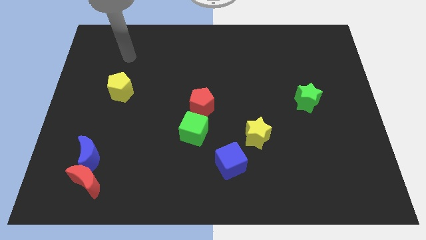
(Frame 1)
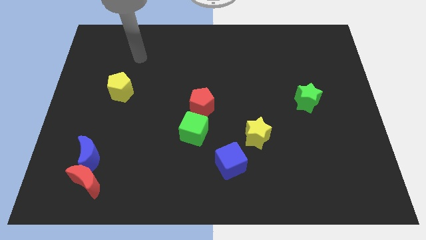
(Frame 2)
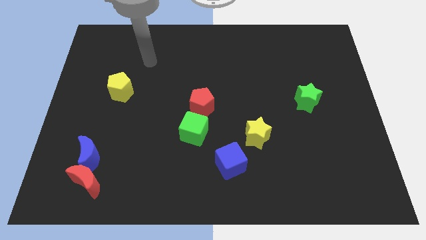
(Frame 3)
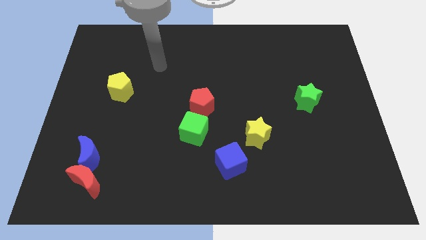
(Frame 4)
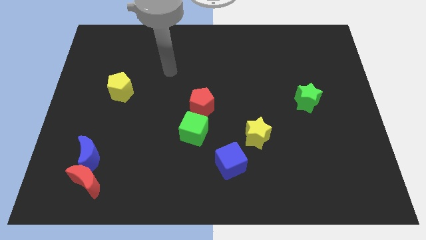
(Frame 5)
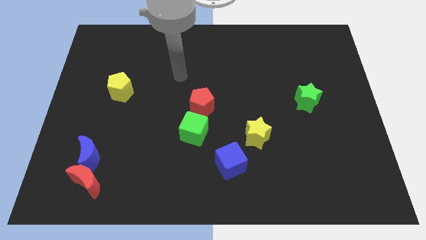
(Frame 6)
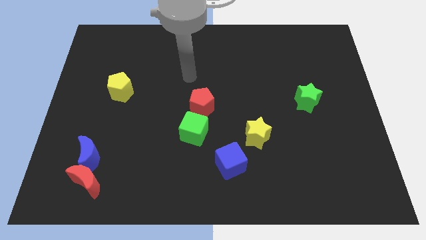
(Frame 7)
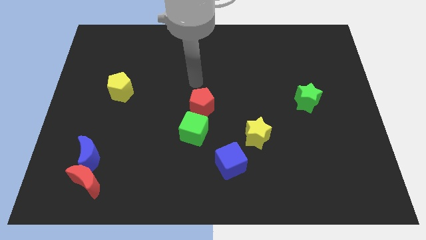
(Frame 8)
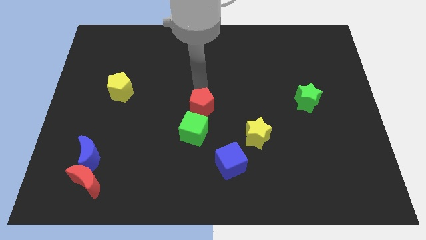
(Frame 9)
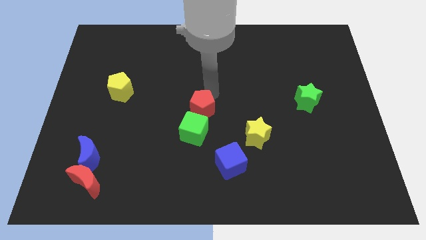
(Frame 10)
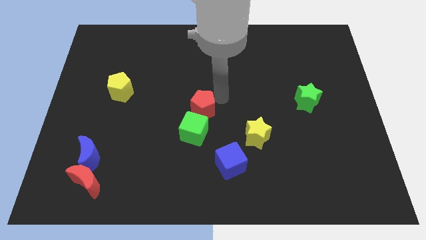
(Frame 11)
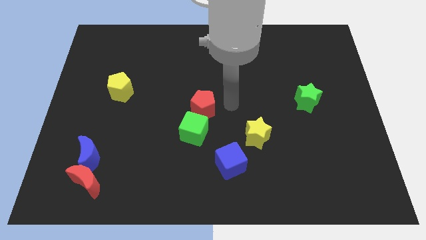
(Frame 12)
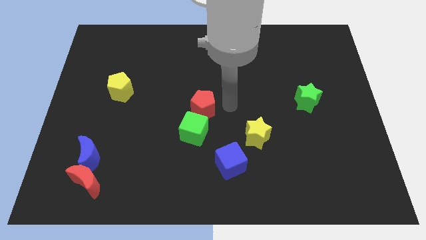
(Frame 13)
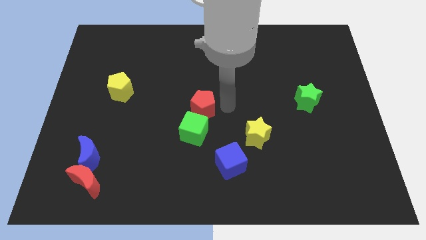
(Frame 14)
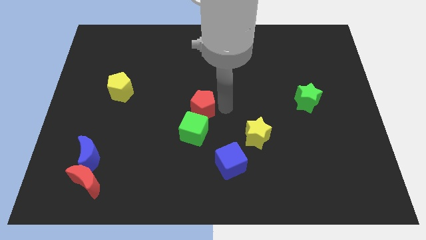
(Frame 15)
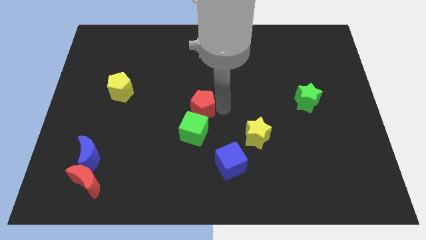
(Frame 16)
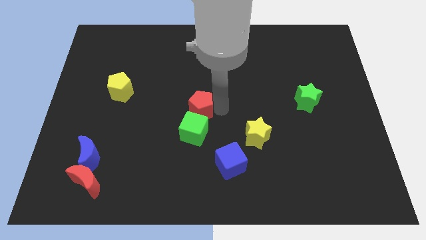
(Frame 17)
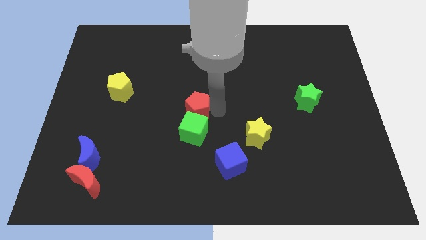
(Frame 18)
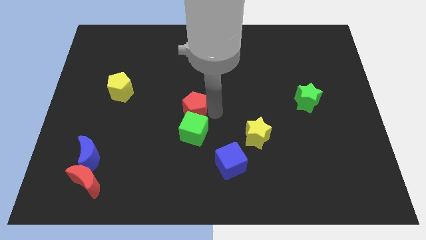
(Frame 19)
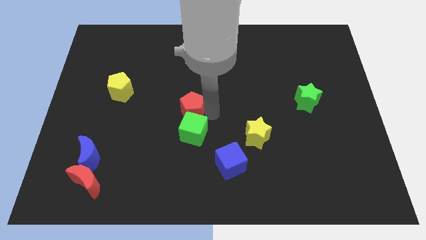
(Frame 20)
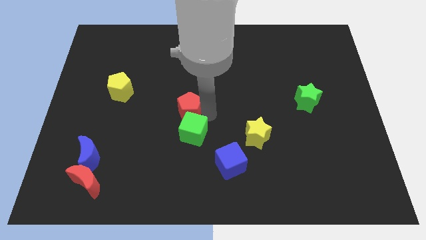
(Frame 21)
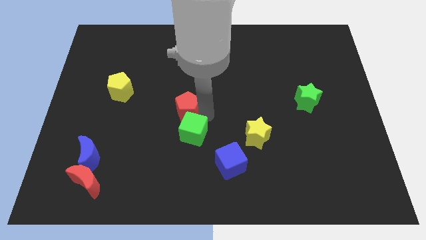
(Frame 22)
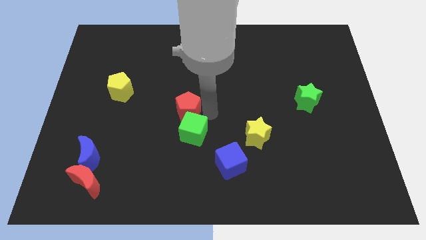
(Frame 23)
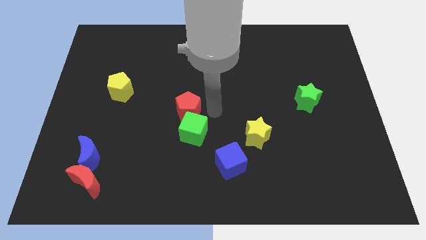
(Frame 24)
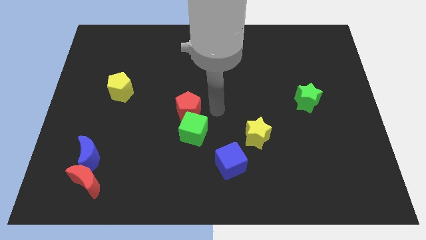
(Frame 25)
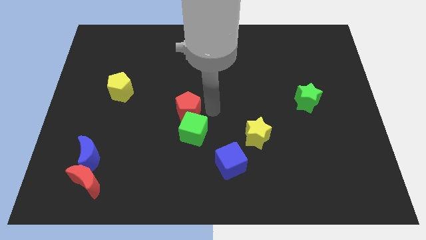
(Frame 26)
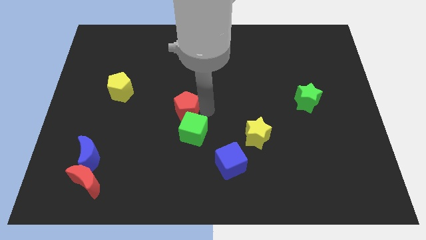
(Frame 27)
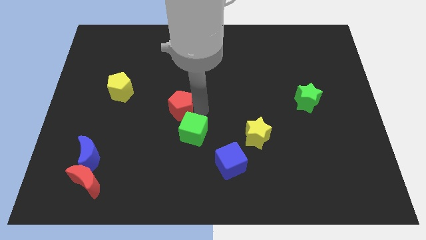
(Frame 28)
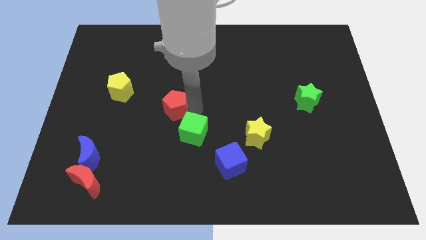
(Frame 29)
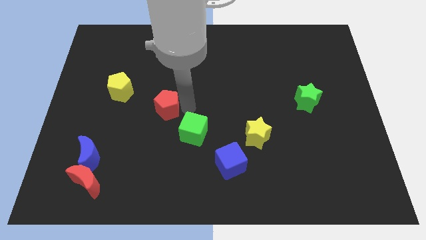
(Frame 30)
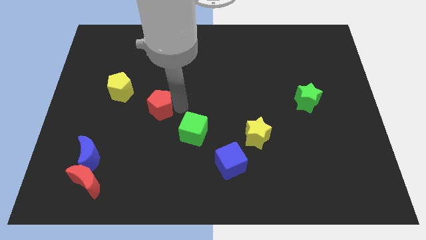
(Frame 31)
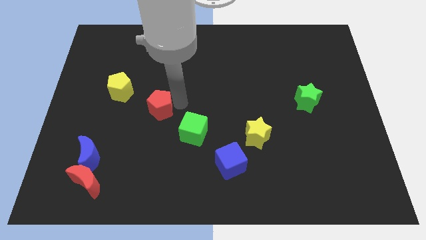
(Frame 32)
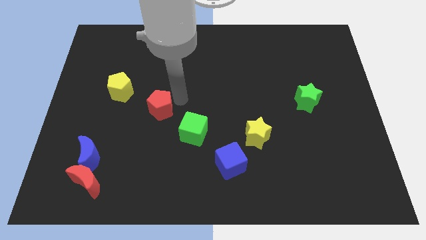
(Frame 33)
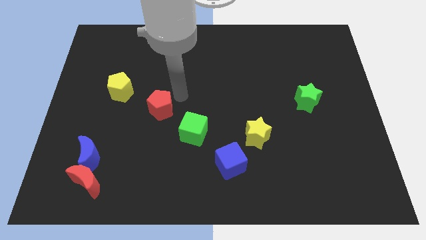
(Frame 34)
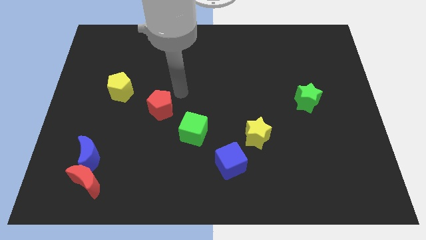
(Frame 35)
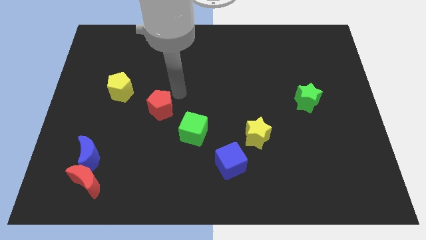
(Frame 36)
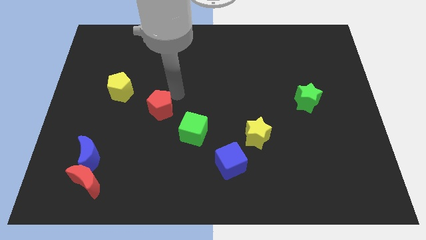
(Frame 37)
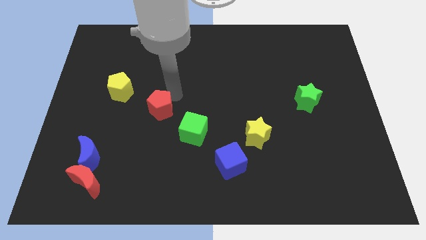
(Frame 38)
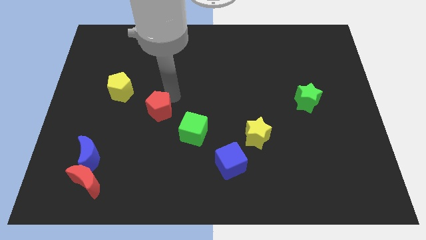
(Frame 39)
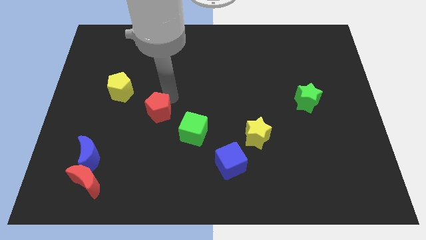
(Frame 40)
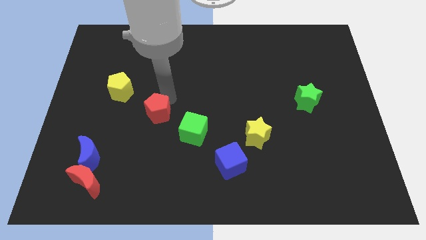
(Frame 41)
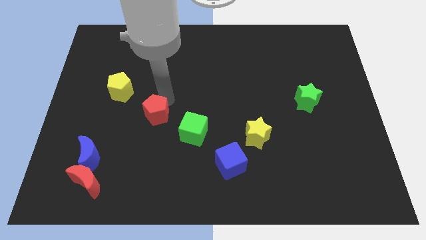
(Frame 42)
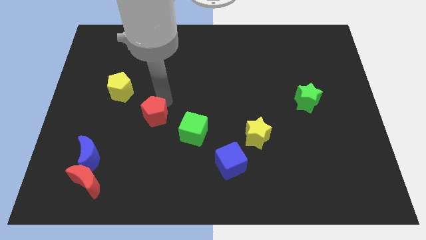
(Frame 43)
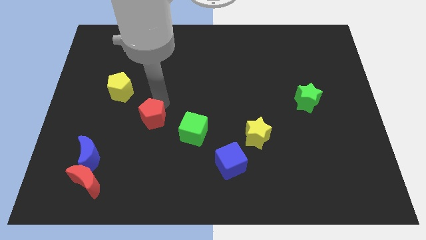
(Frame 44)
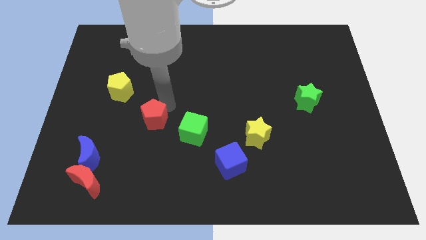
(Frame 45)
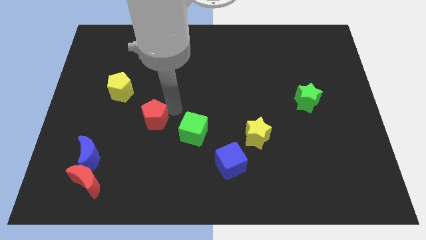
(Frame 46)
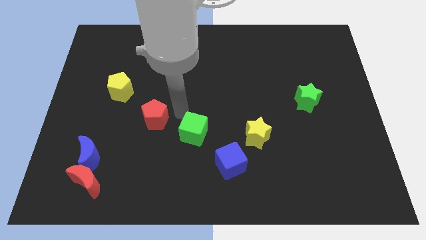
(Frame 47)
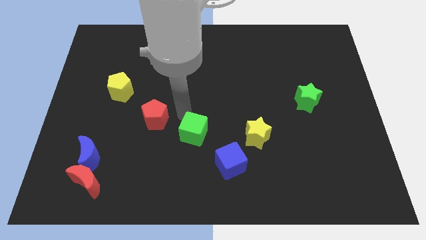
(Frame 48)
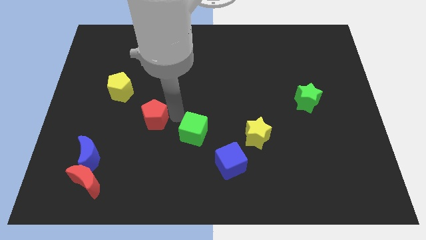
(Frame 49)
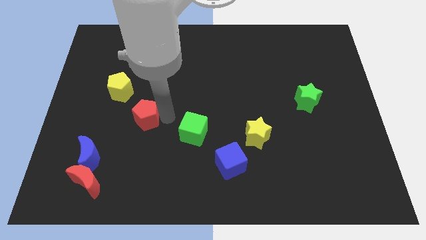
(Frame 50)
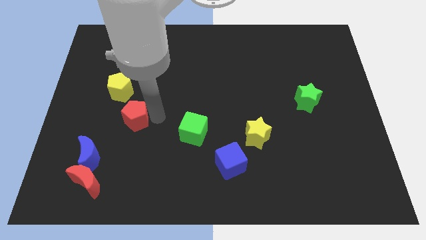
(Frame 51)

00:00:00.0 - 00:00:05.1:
move the red pentagon below the yellow pentagon

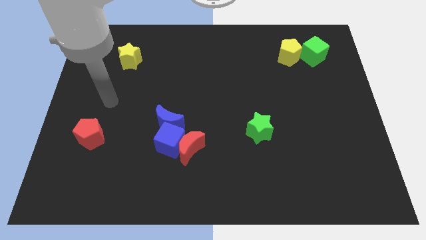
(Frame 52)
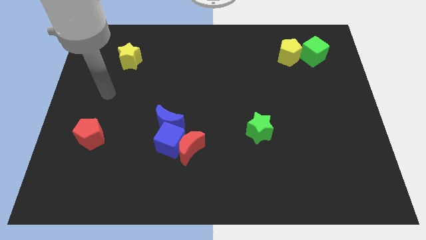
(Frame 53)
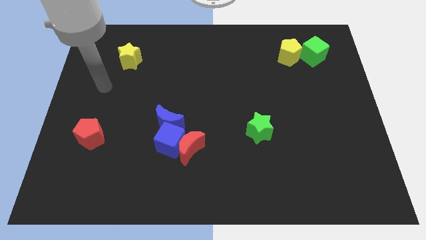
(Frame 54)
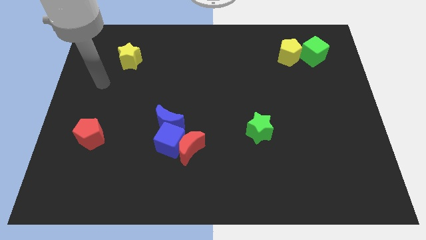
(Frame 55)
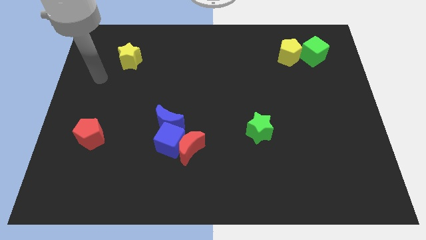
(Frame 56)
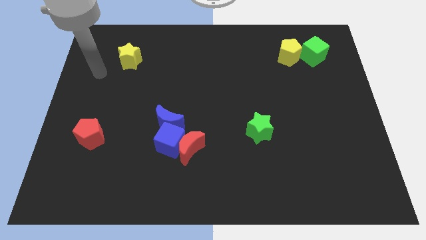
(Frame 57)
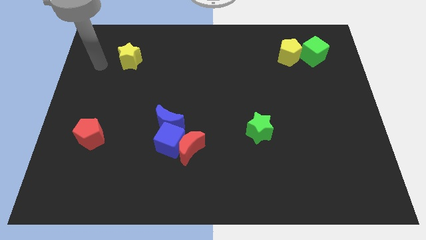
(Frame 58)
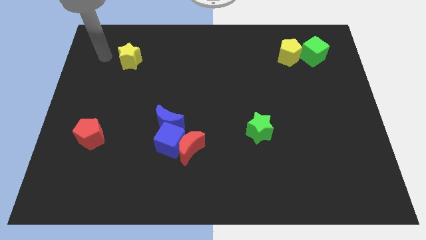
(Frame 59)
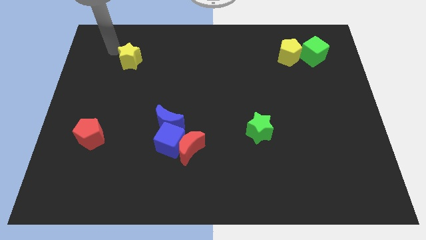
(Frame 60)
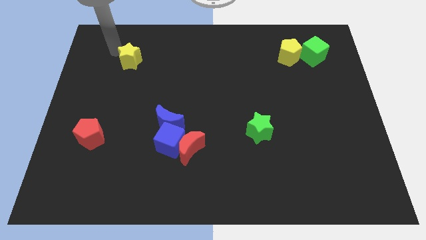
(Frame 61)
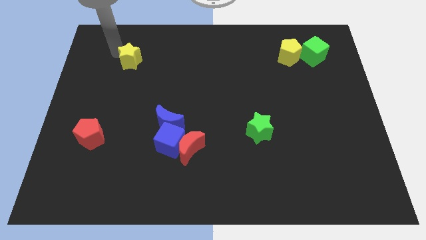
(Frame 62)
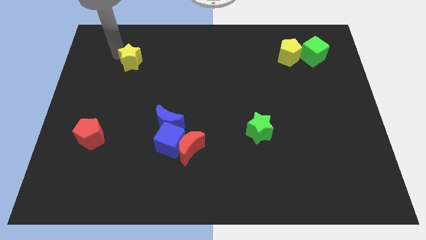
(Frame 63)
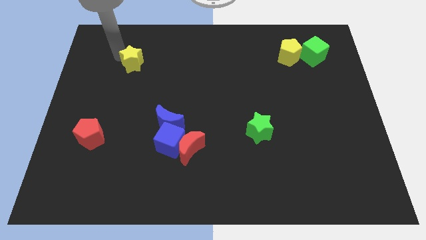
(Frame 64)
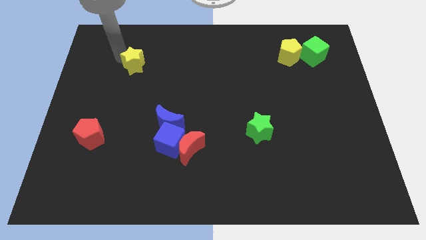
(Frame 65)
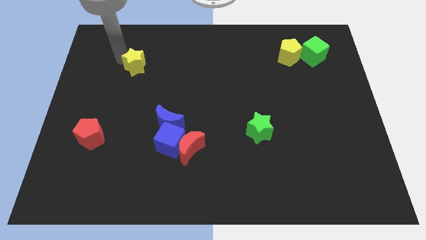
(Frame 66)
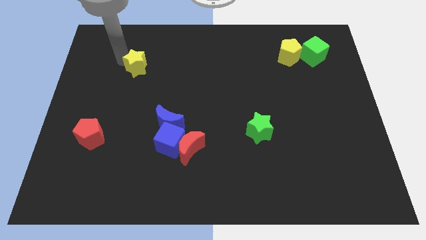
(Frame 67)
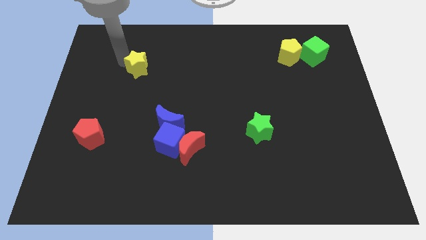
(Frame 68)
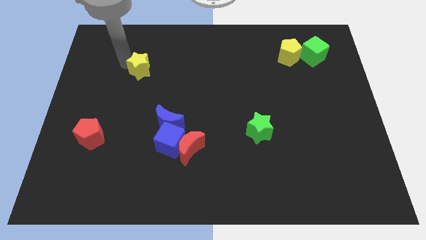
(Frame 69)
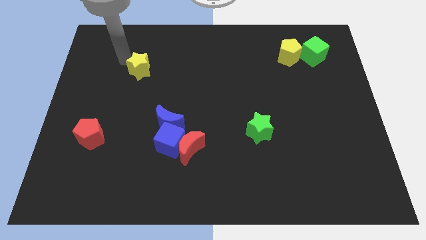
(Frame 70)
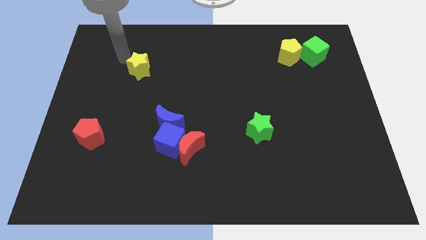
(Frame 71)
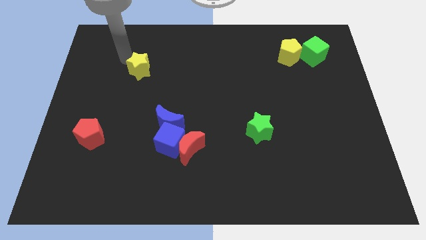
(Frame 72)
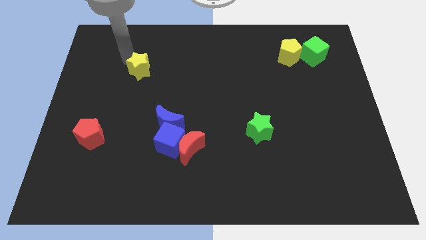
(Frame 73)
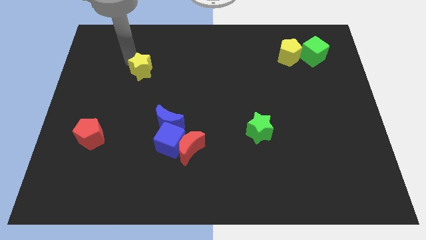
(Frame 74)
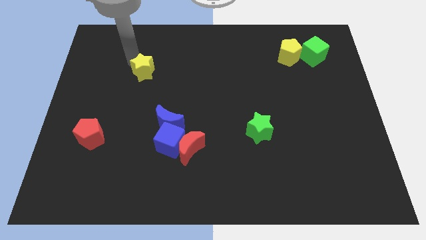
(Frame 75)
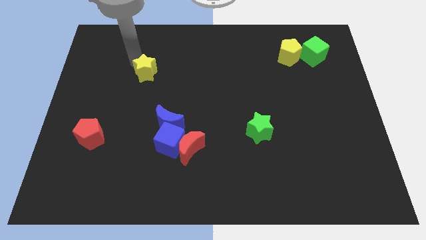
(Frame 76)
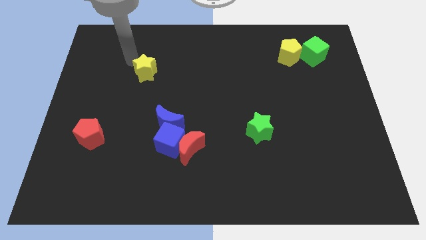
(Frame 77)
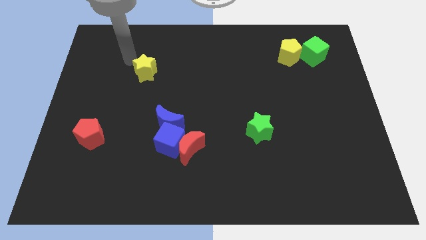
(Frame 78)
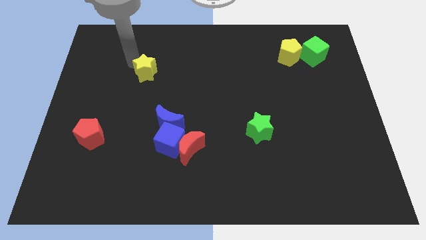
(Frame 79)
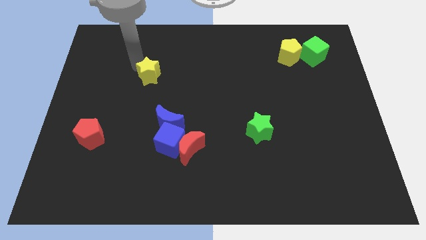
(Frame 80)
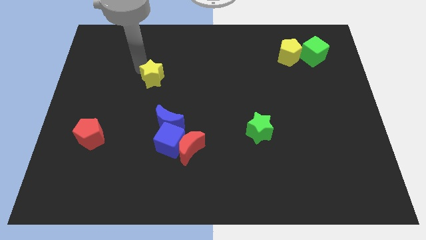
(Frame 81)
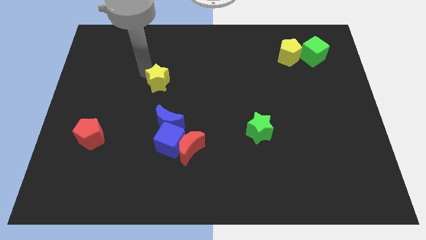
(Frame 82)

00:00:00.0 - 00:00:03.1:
move the yellow star to the top of the blue moon
